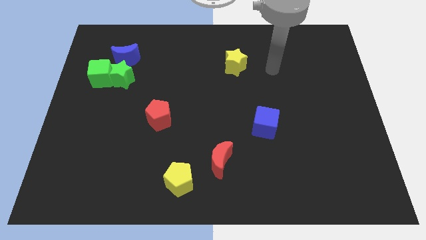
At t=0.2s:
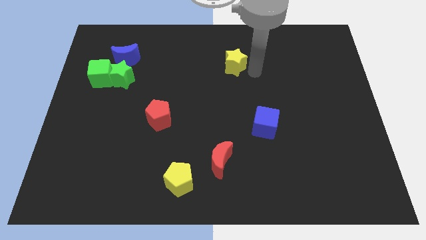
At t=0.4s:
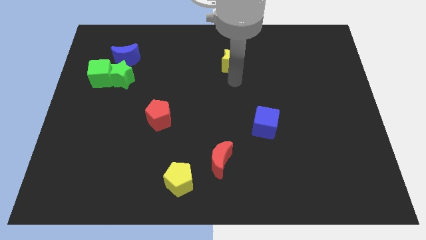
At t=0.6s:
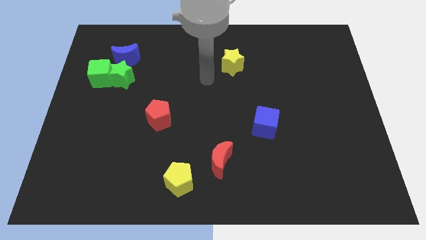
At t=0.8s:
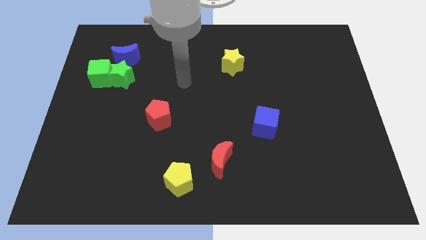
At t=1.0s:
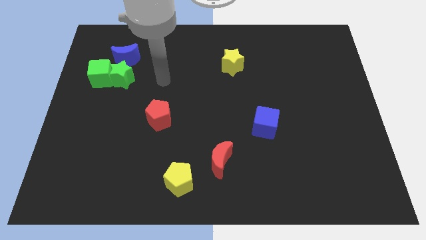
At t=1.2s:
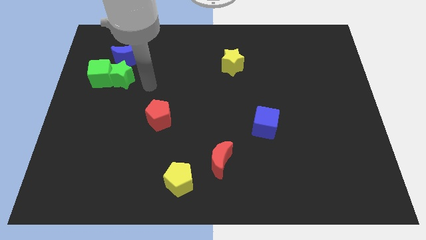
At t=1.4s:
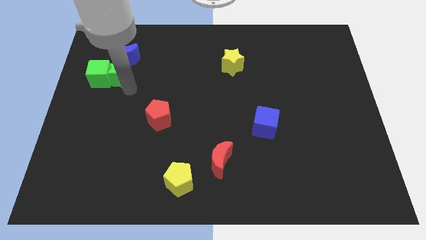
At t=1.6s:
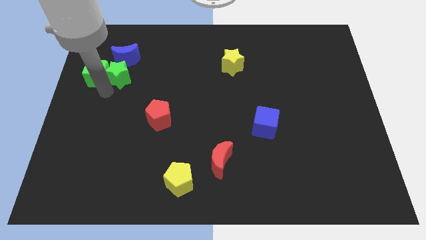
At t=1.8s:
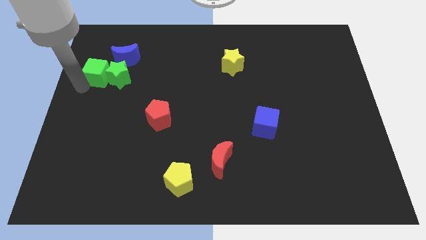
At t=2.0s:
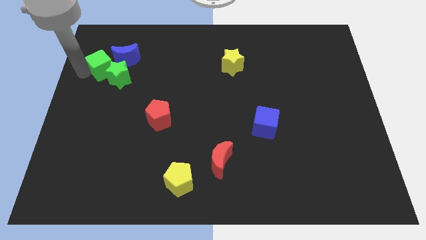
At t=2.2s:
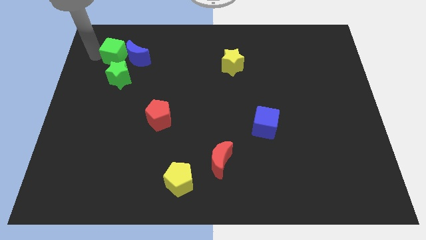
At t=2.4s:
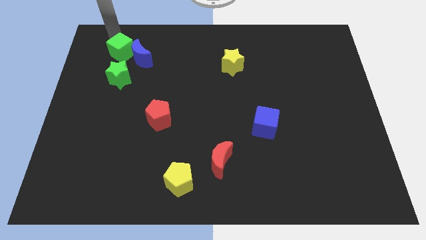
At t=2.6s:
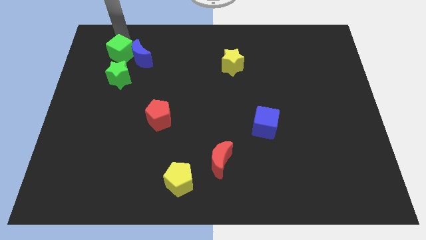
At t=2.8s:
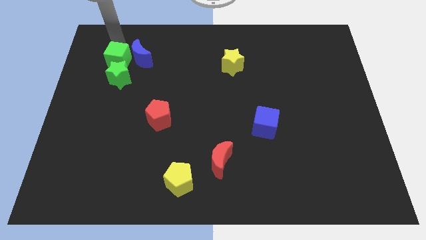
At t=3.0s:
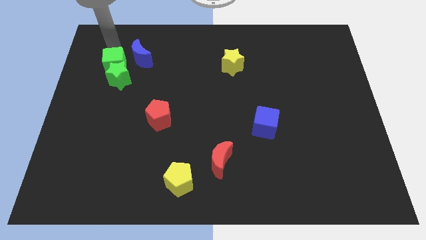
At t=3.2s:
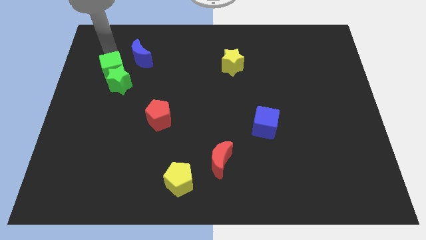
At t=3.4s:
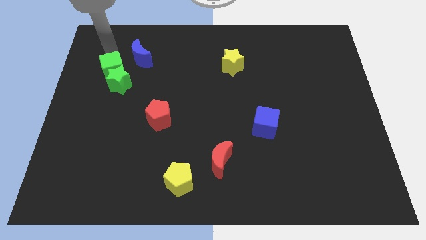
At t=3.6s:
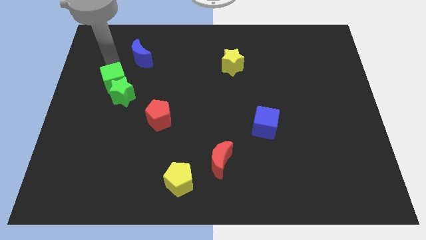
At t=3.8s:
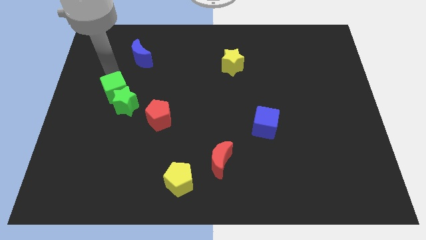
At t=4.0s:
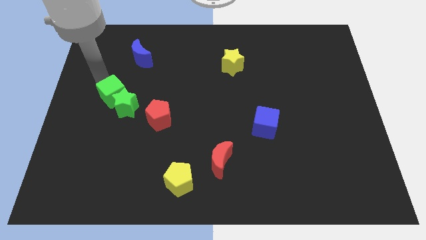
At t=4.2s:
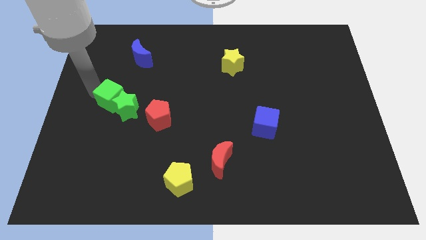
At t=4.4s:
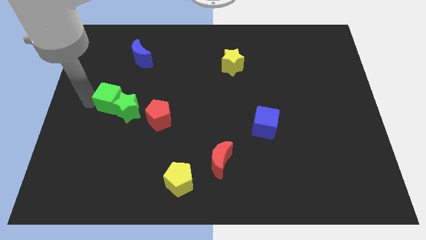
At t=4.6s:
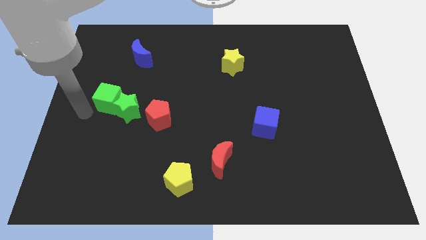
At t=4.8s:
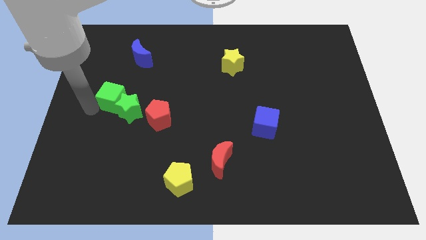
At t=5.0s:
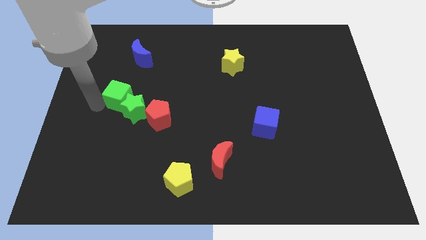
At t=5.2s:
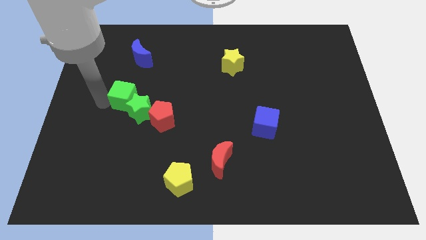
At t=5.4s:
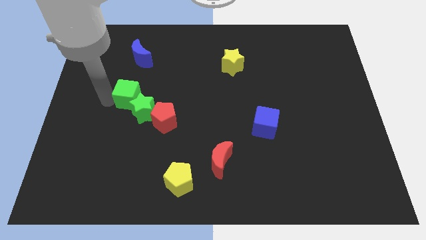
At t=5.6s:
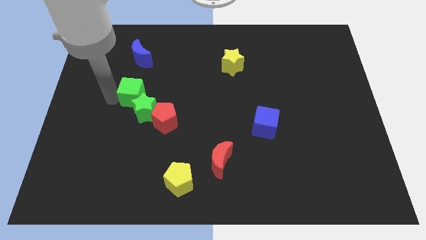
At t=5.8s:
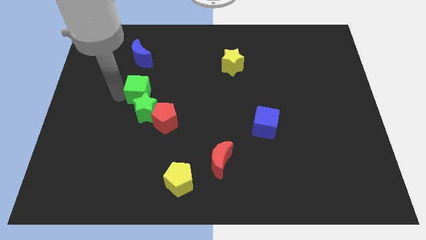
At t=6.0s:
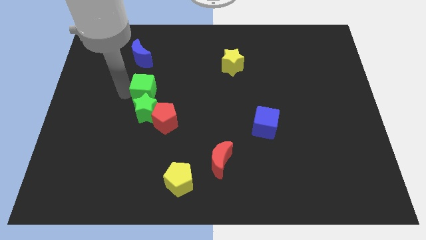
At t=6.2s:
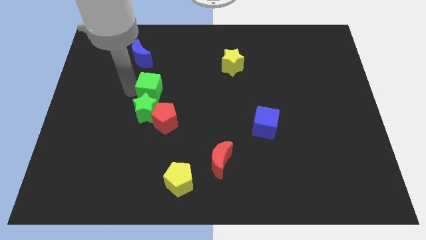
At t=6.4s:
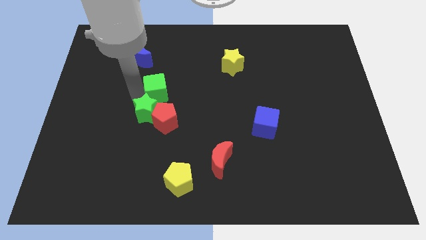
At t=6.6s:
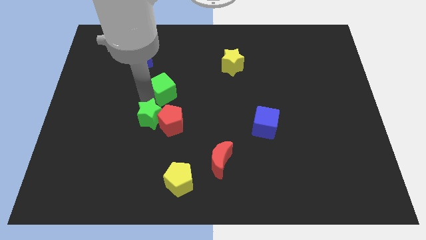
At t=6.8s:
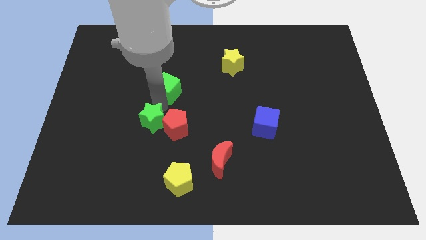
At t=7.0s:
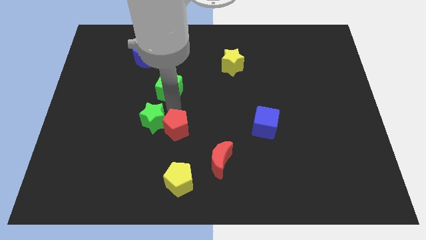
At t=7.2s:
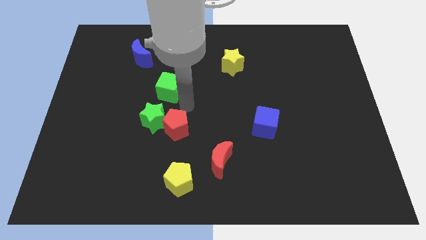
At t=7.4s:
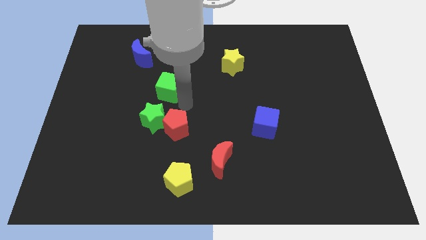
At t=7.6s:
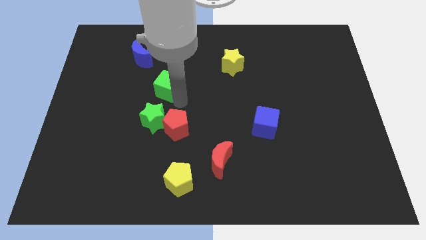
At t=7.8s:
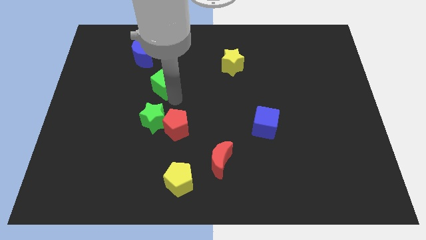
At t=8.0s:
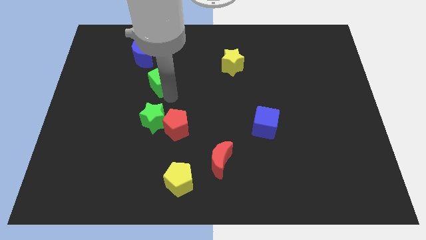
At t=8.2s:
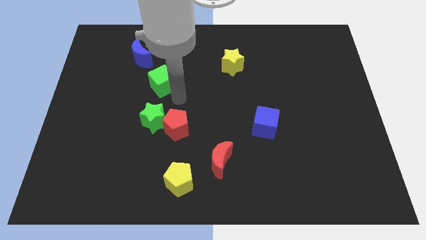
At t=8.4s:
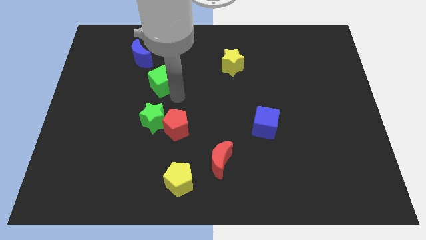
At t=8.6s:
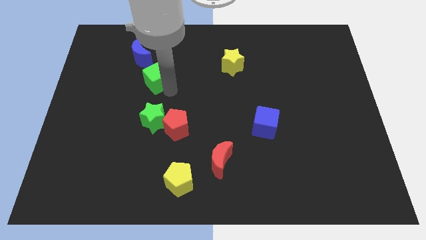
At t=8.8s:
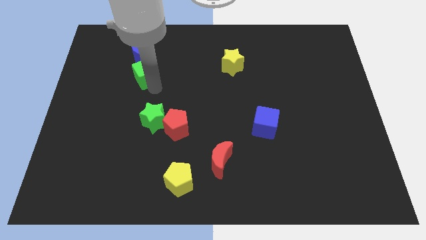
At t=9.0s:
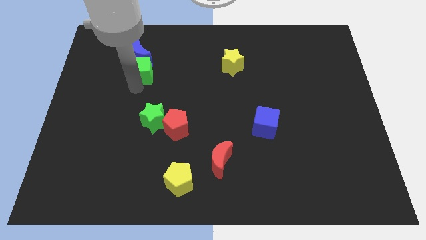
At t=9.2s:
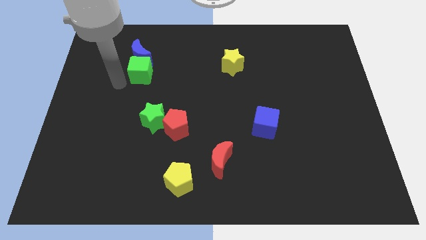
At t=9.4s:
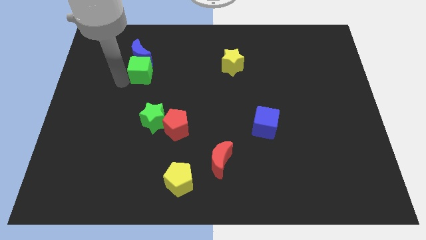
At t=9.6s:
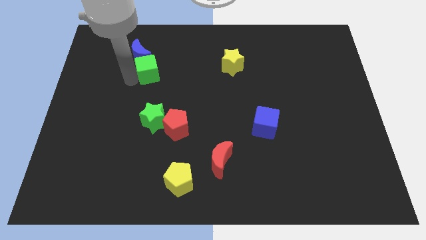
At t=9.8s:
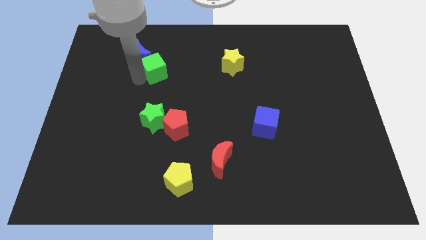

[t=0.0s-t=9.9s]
move the green cube to the right side of the blue moon

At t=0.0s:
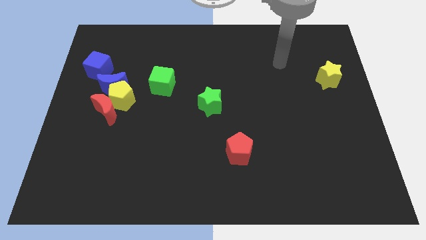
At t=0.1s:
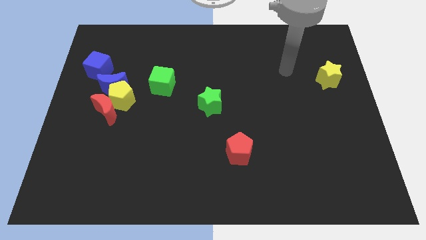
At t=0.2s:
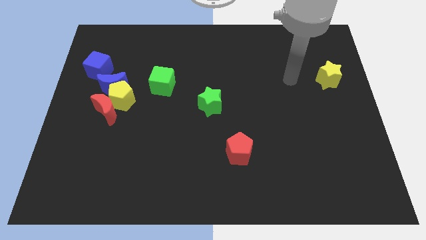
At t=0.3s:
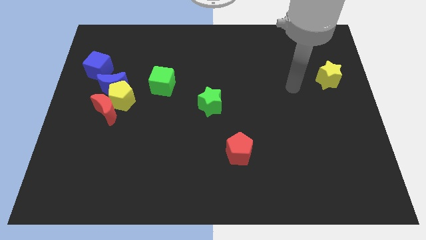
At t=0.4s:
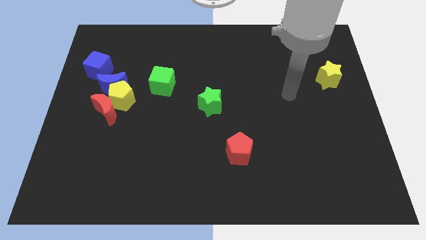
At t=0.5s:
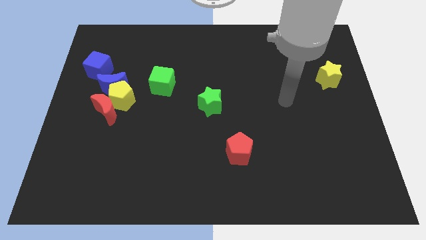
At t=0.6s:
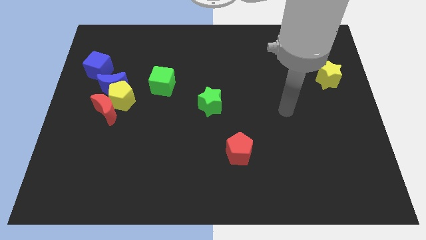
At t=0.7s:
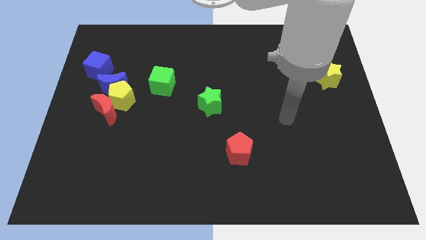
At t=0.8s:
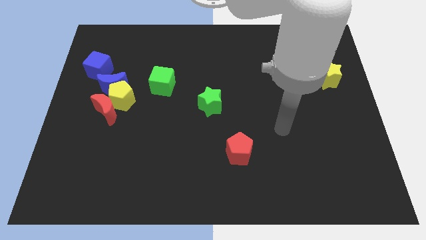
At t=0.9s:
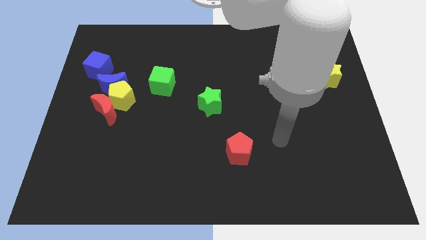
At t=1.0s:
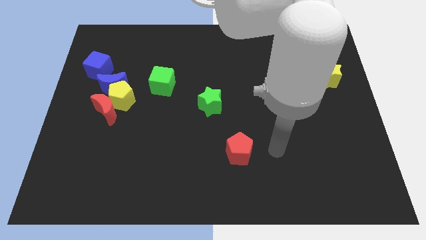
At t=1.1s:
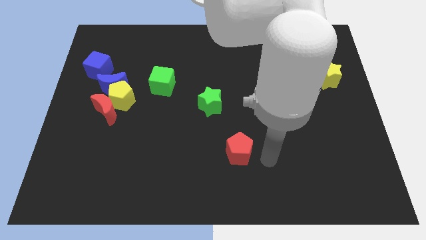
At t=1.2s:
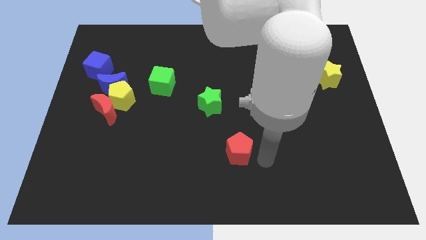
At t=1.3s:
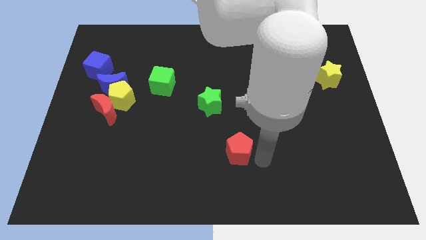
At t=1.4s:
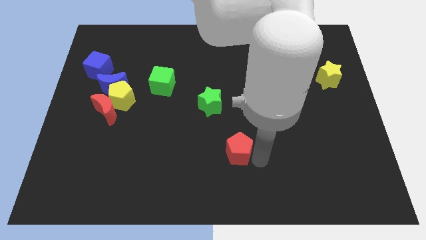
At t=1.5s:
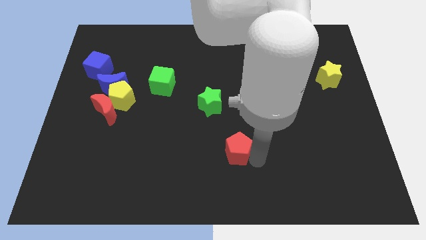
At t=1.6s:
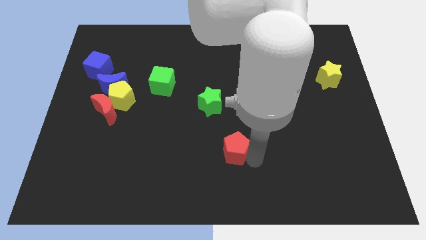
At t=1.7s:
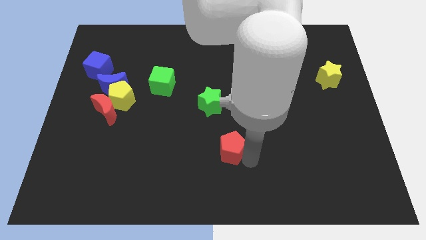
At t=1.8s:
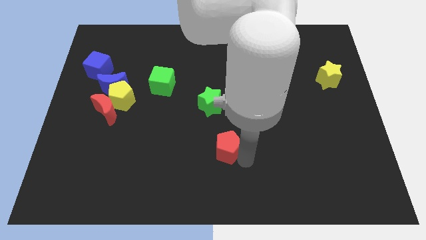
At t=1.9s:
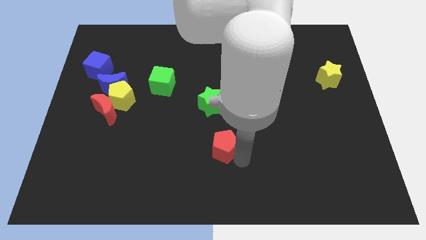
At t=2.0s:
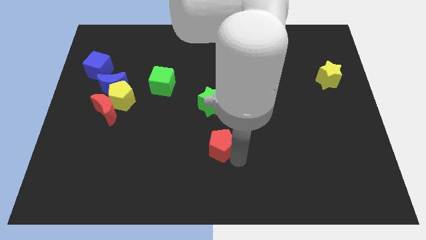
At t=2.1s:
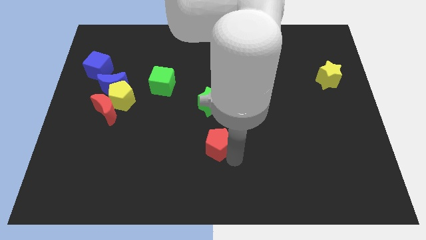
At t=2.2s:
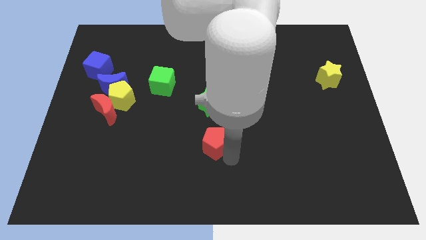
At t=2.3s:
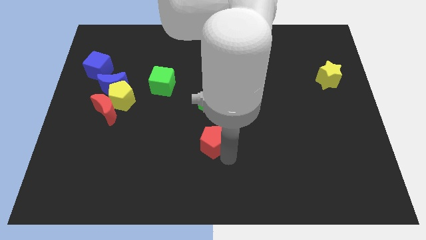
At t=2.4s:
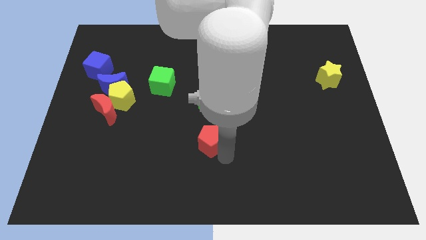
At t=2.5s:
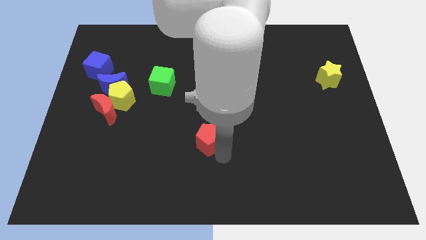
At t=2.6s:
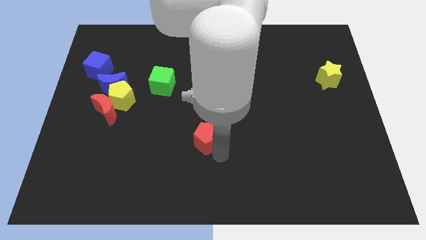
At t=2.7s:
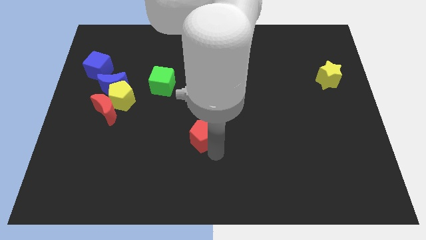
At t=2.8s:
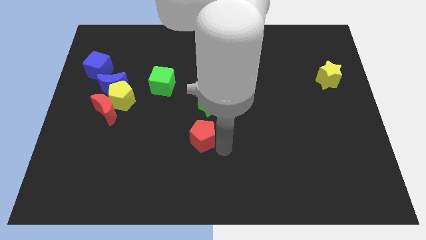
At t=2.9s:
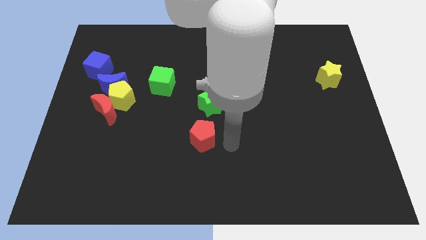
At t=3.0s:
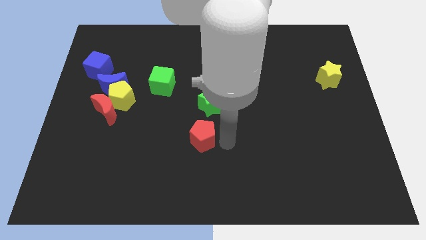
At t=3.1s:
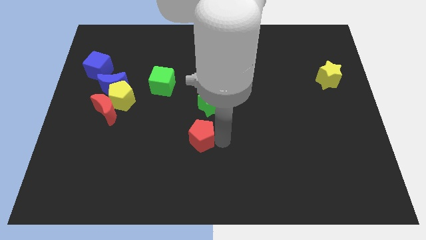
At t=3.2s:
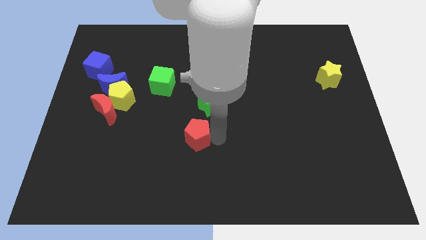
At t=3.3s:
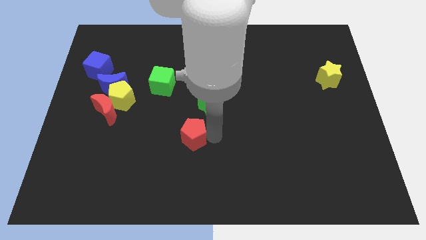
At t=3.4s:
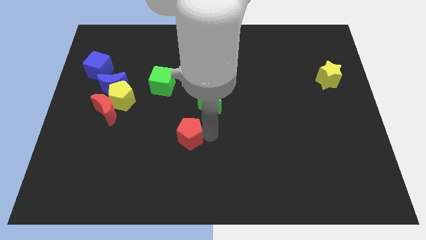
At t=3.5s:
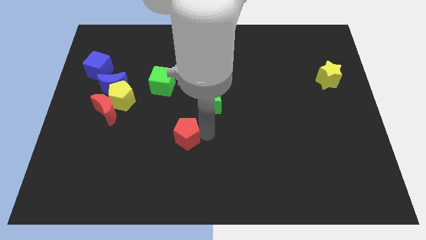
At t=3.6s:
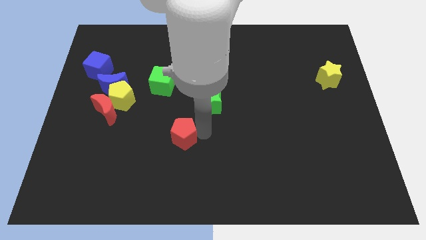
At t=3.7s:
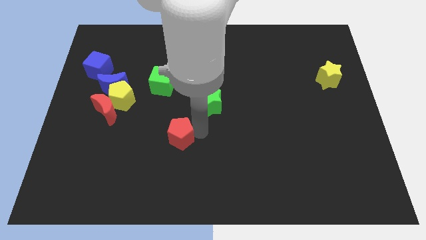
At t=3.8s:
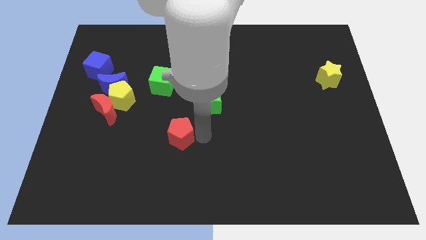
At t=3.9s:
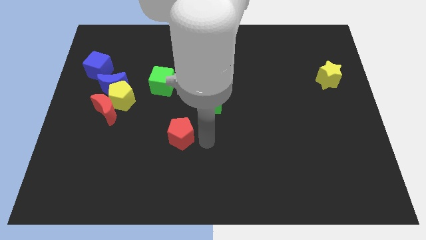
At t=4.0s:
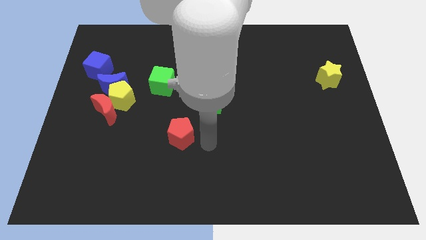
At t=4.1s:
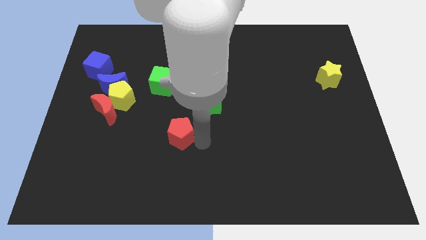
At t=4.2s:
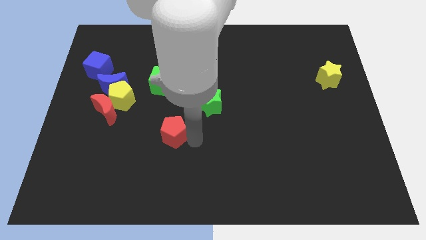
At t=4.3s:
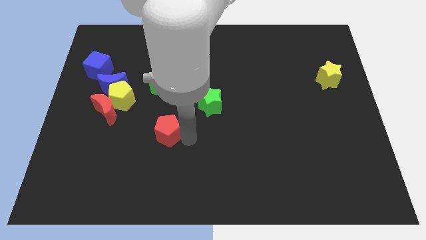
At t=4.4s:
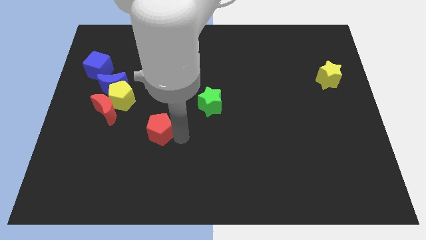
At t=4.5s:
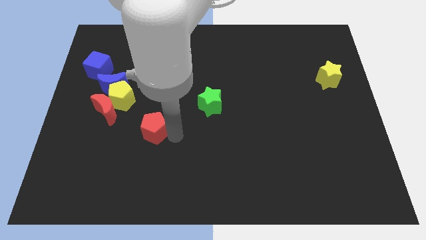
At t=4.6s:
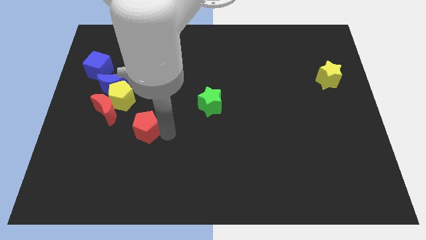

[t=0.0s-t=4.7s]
slide the red pentagon to the bottom right side of the red moon
